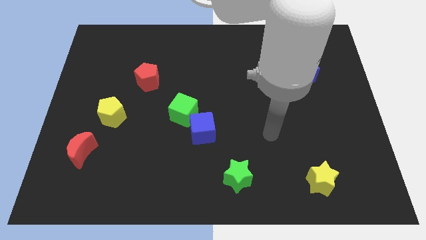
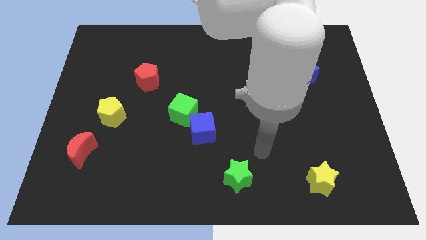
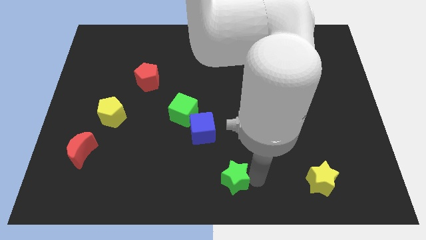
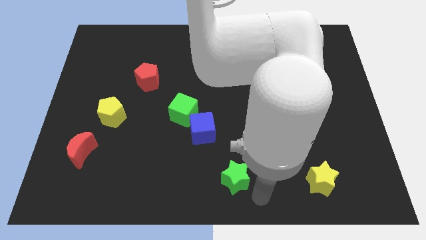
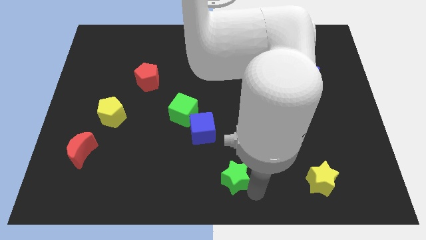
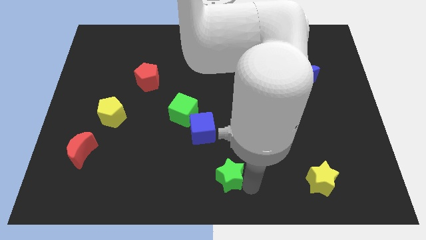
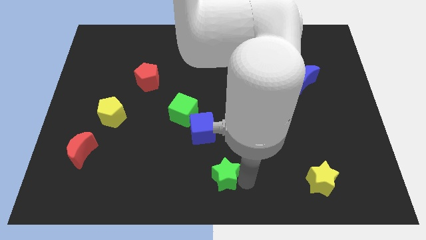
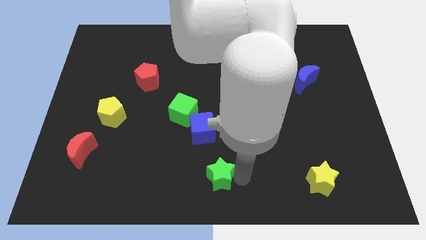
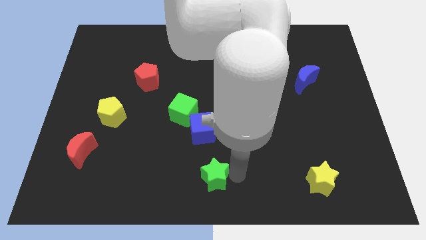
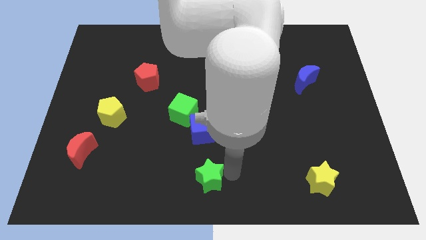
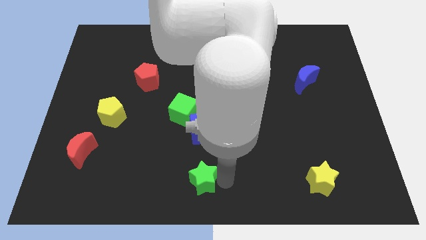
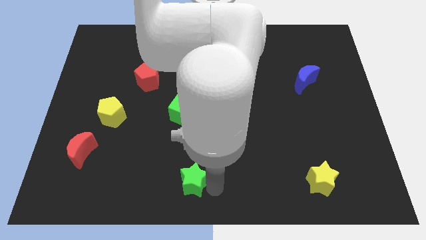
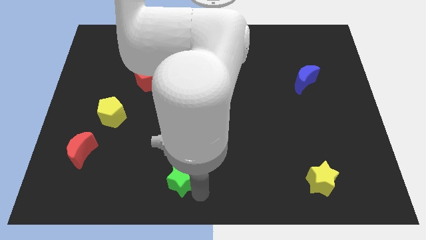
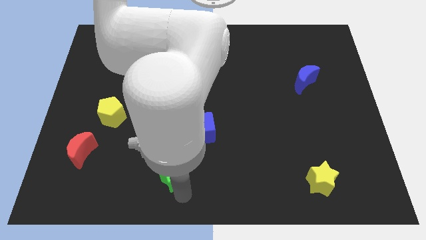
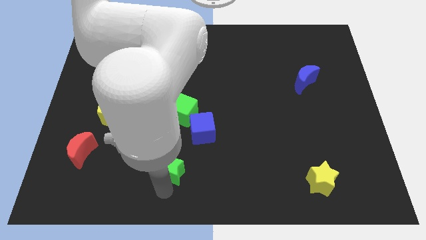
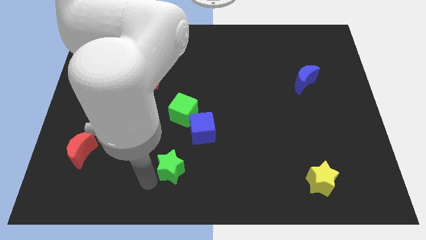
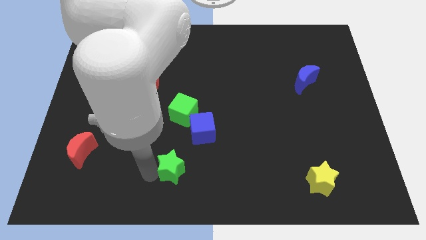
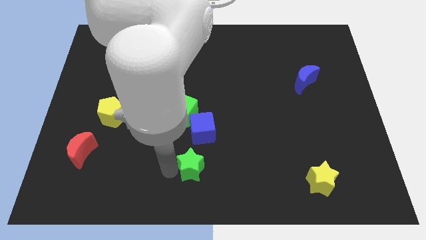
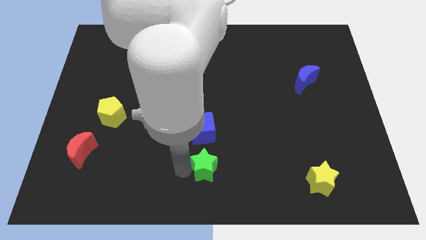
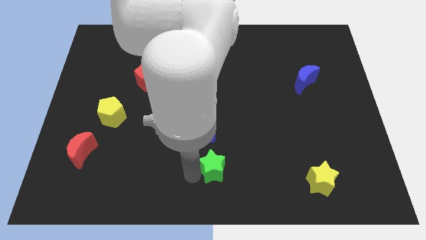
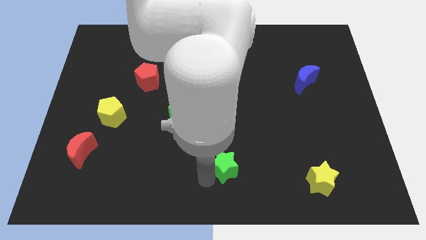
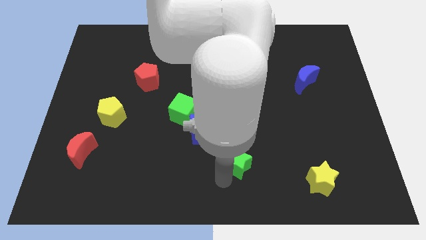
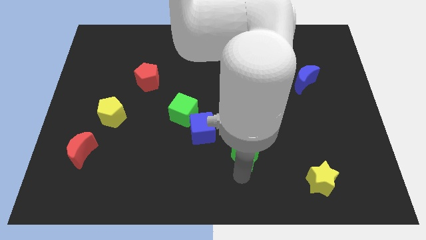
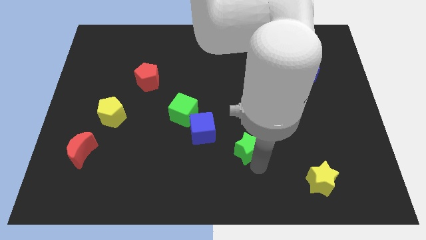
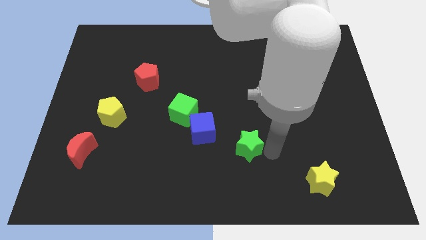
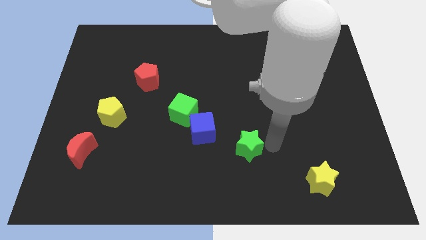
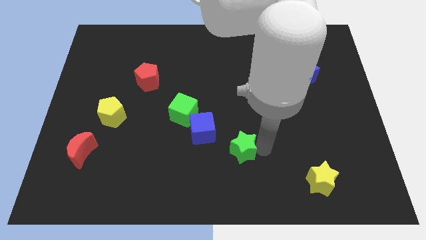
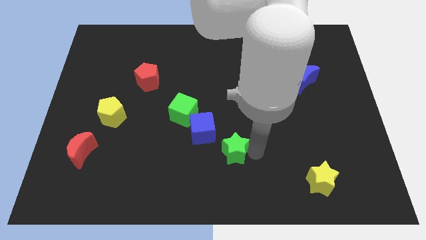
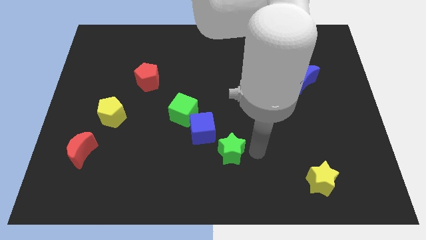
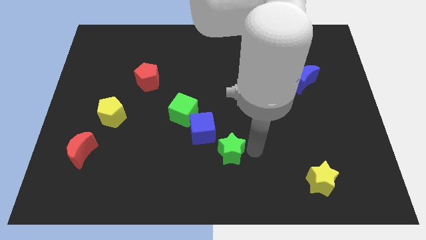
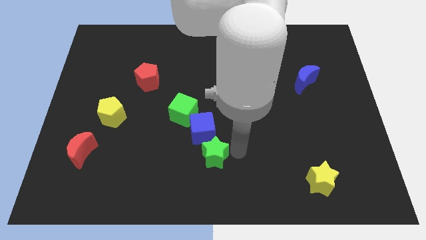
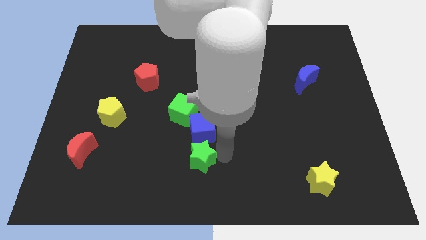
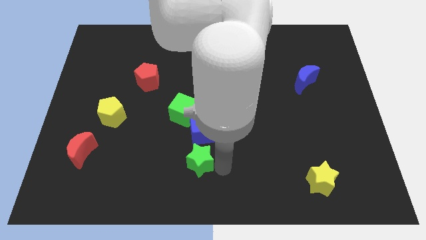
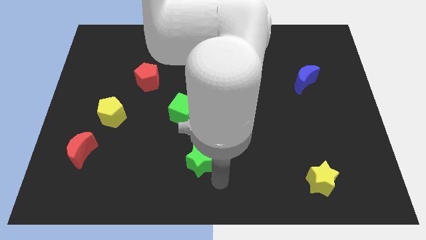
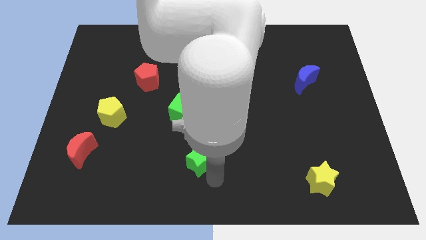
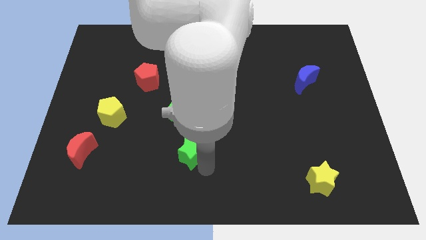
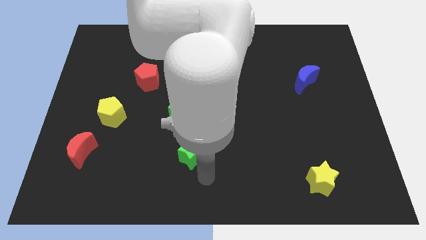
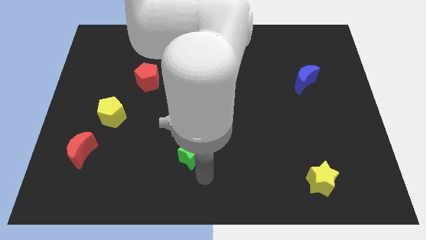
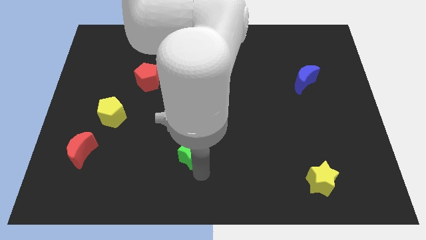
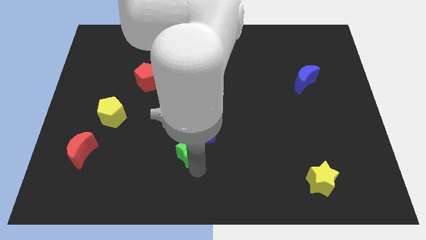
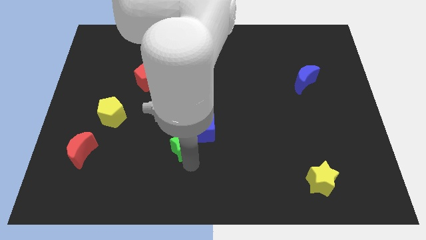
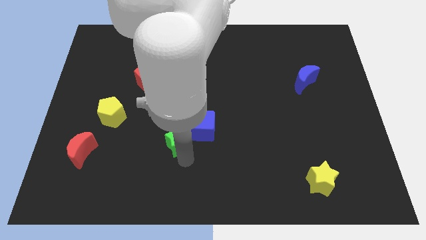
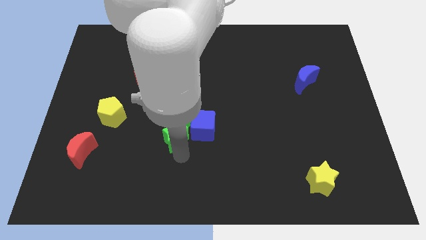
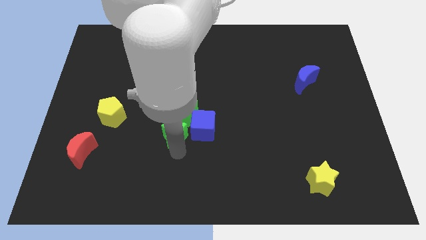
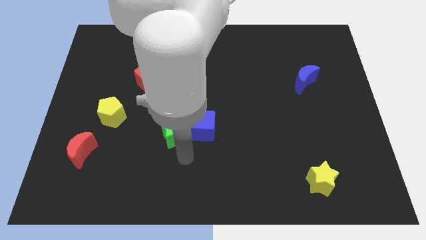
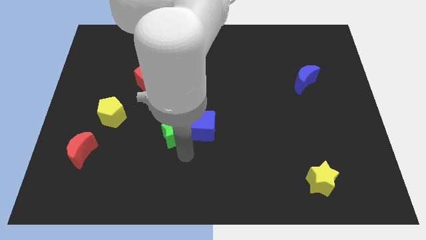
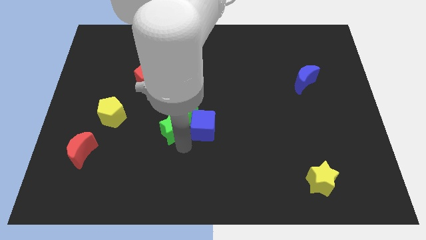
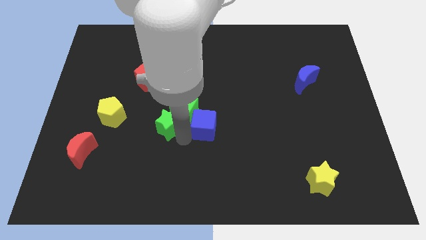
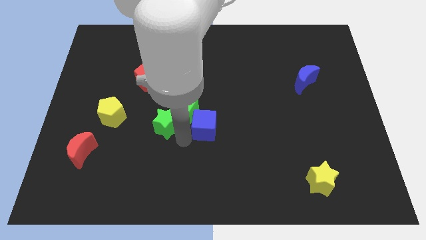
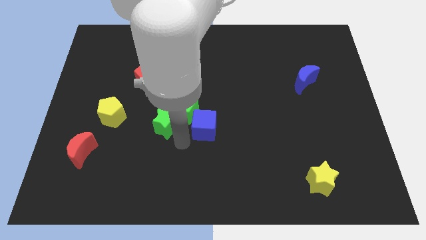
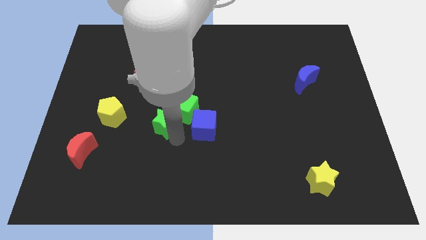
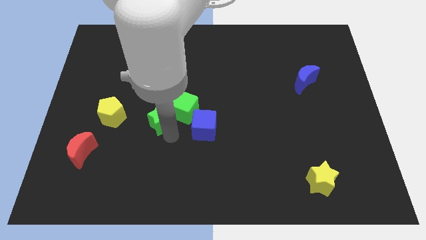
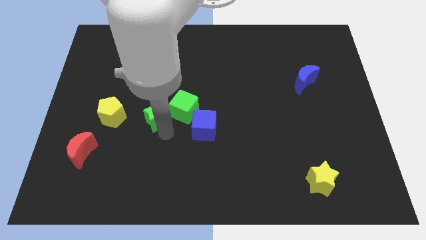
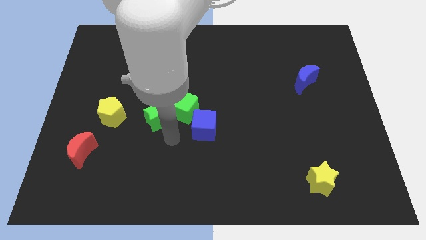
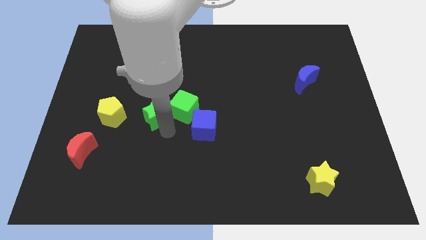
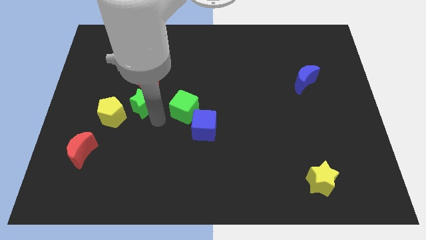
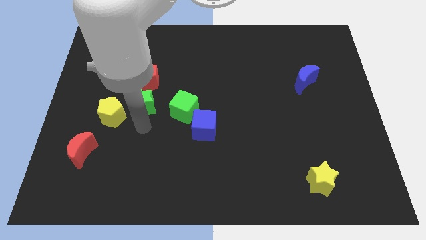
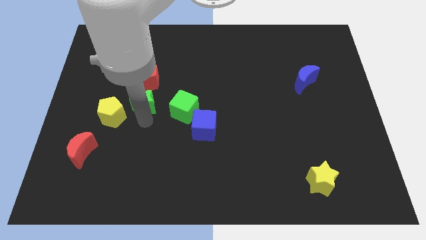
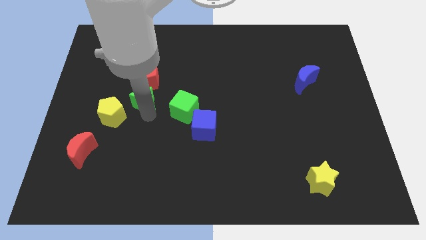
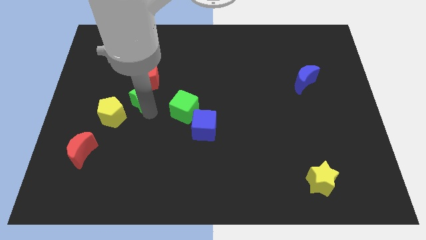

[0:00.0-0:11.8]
put the green star next to the red pentagon

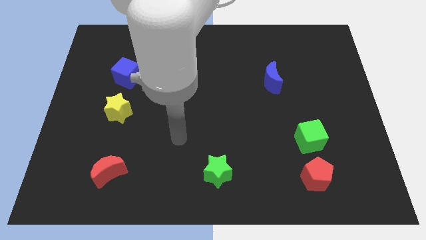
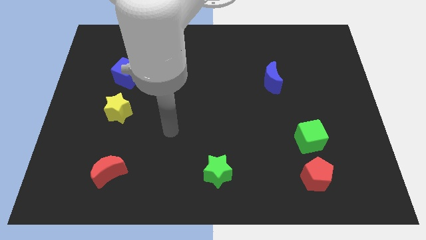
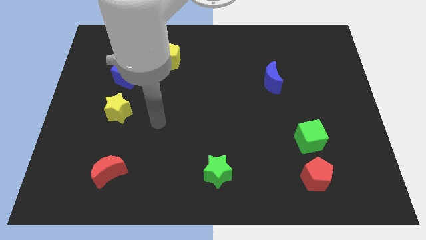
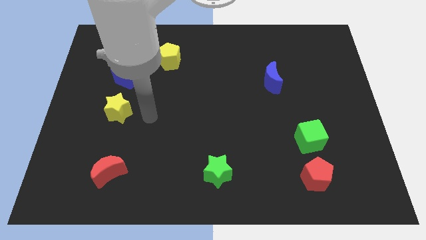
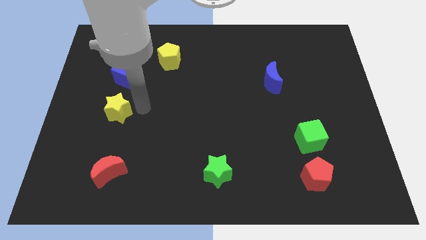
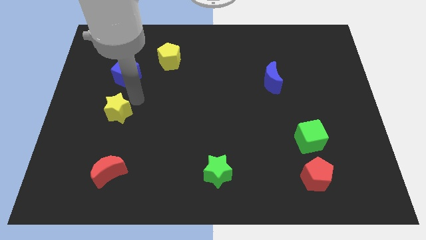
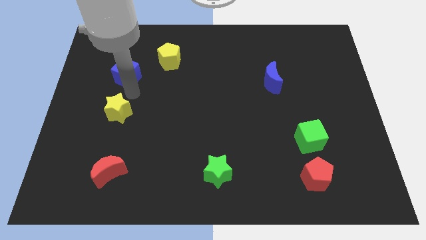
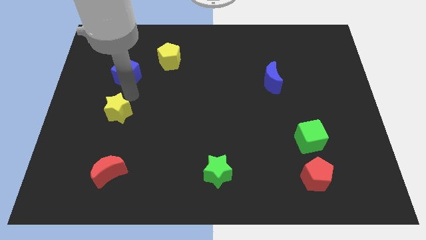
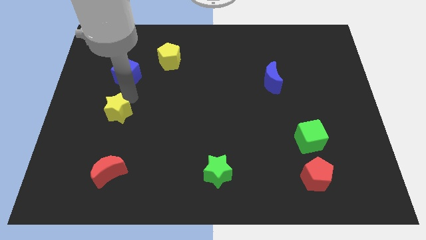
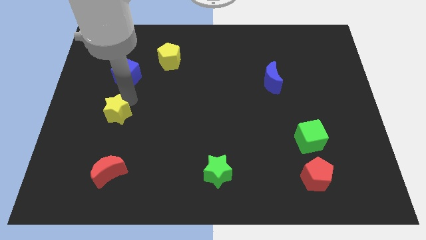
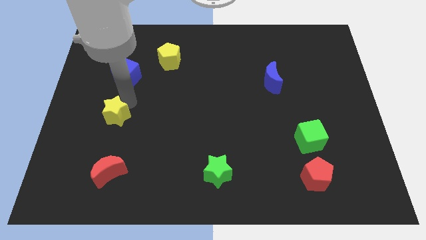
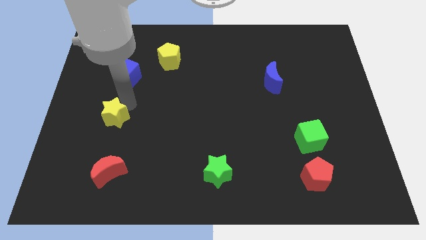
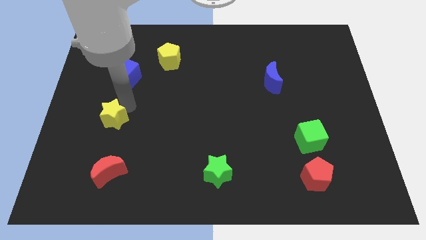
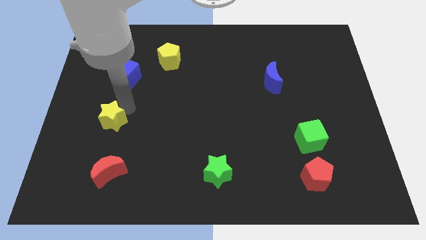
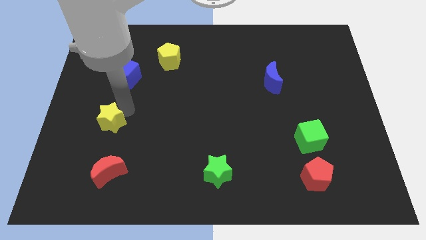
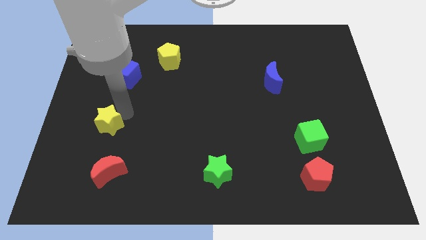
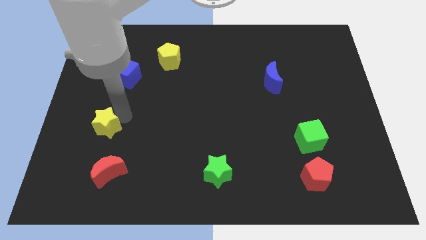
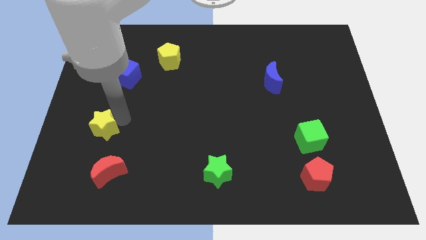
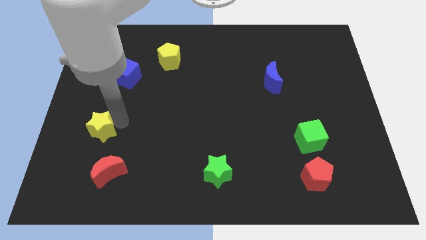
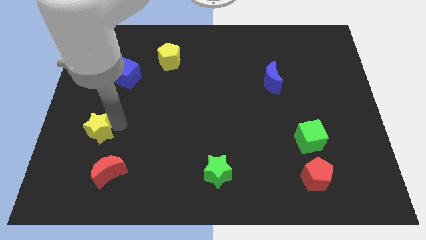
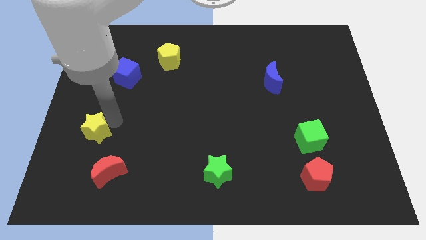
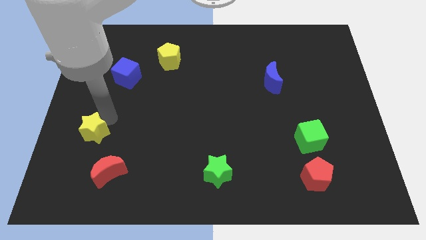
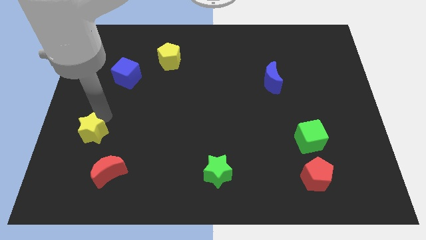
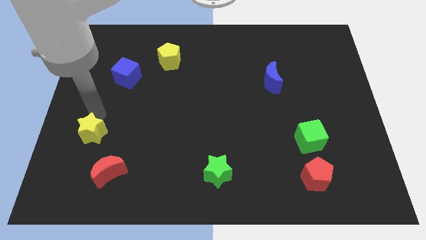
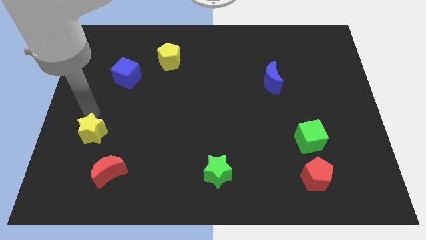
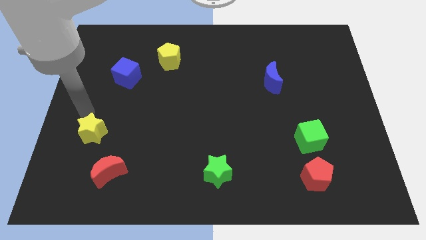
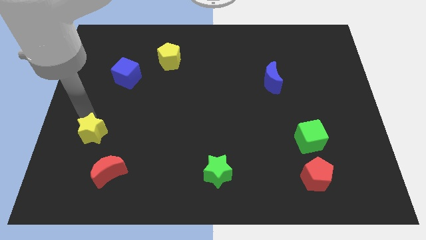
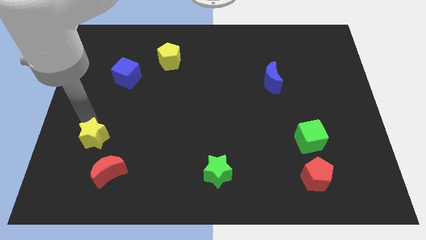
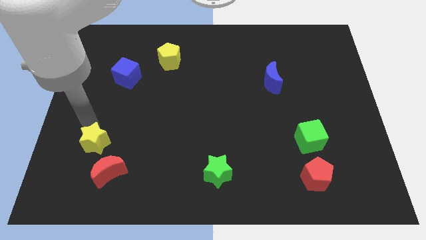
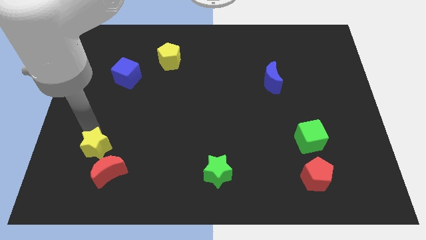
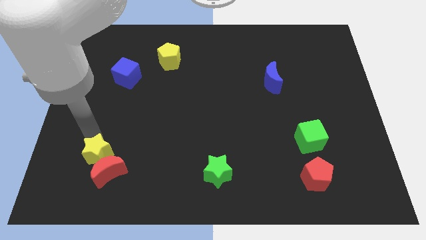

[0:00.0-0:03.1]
put the yellow star to the red moon
